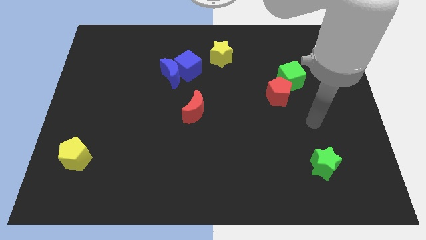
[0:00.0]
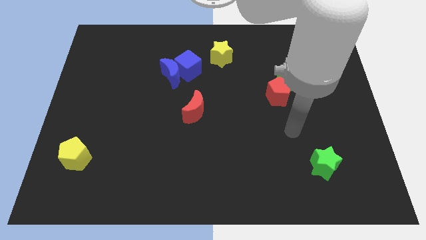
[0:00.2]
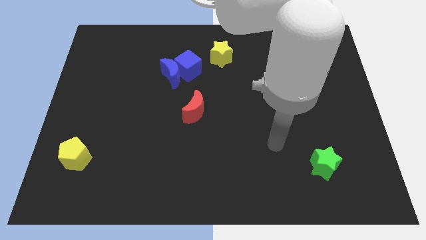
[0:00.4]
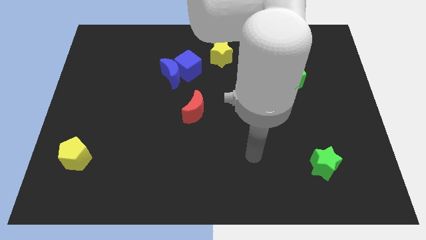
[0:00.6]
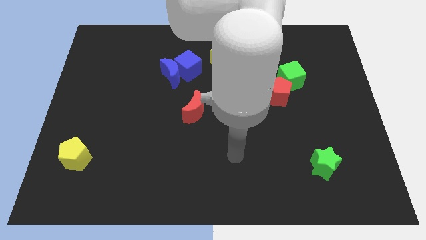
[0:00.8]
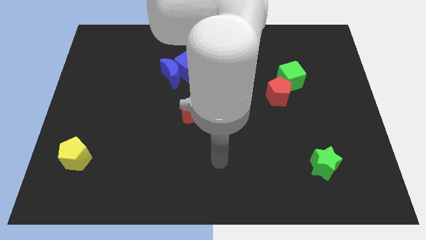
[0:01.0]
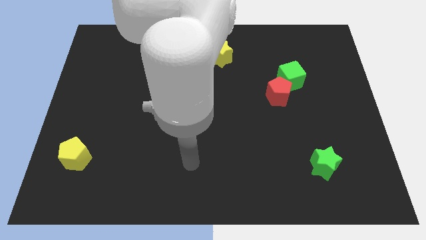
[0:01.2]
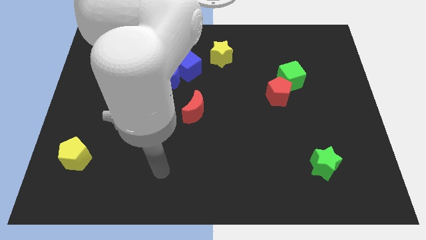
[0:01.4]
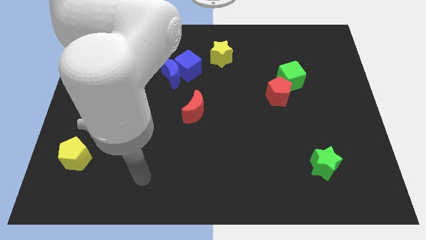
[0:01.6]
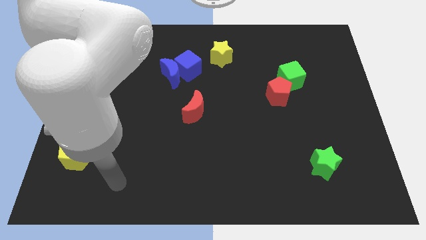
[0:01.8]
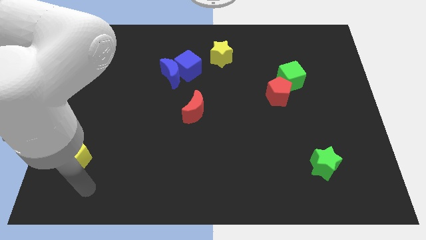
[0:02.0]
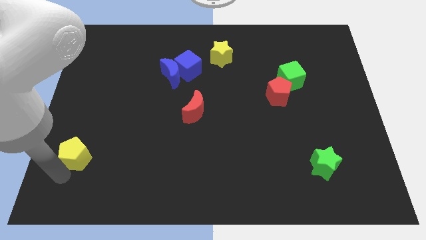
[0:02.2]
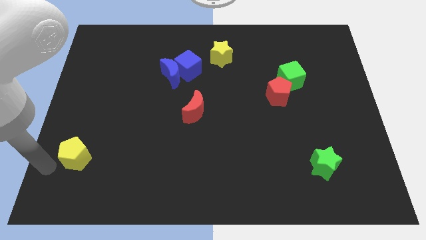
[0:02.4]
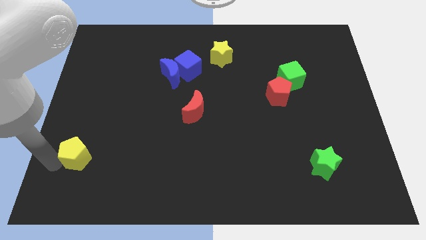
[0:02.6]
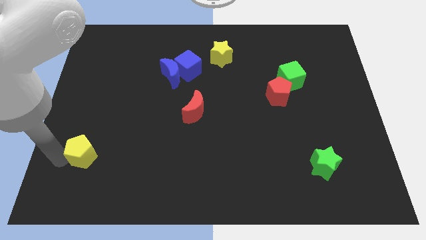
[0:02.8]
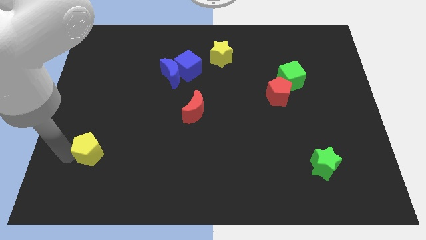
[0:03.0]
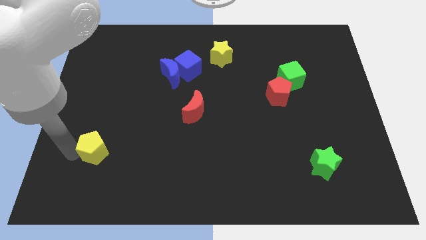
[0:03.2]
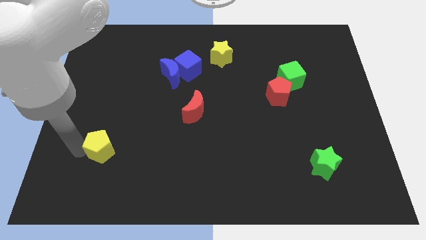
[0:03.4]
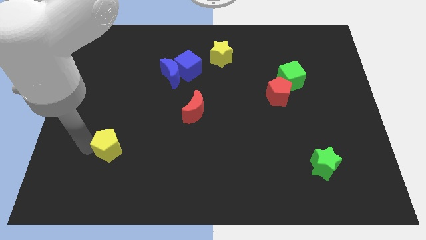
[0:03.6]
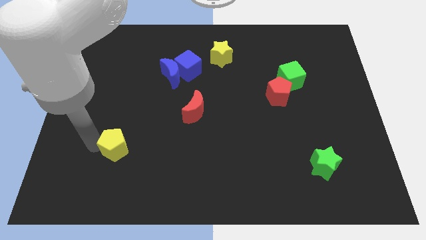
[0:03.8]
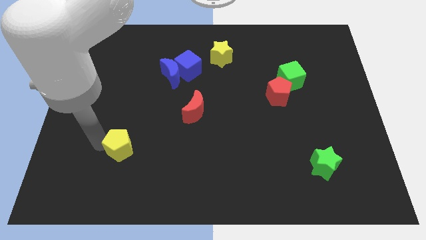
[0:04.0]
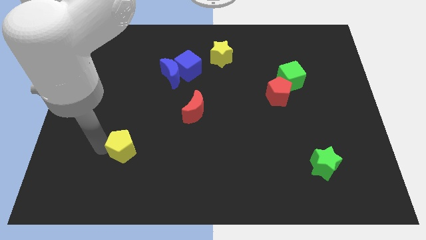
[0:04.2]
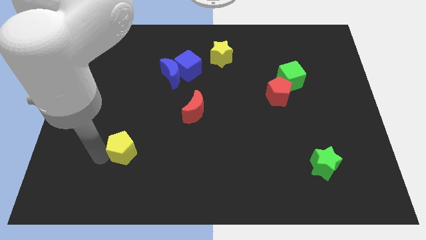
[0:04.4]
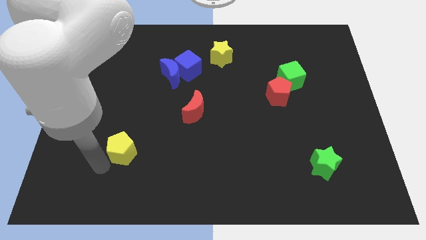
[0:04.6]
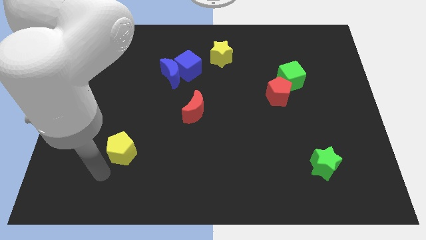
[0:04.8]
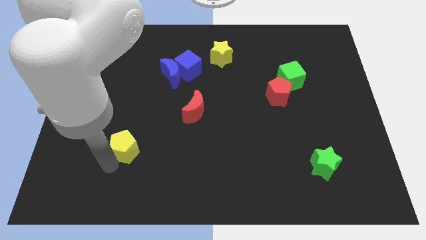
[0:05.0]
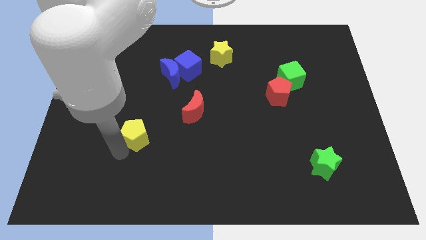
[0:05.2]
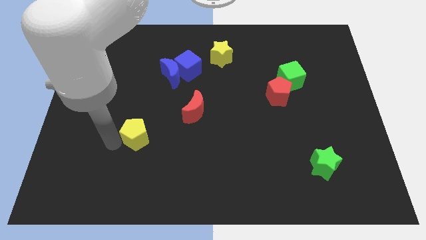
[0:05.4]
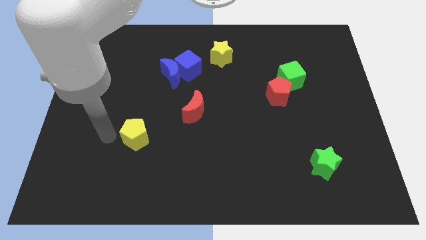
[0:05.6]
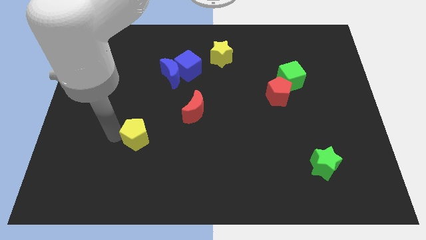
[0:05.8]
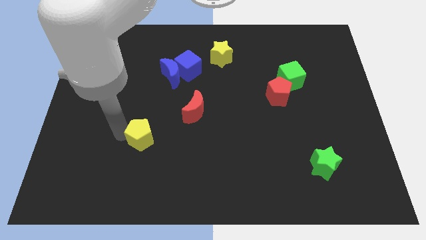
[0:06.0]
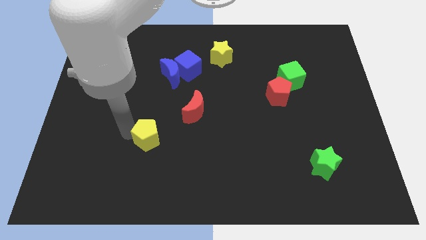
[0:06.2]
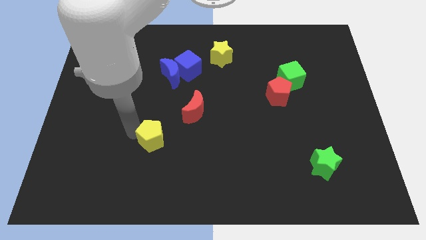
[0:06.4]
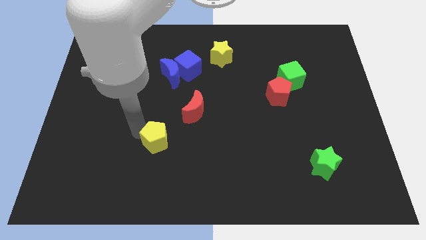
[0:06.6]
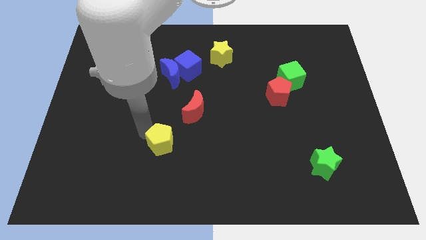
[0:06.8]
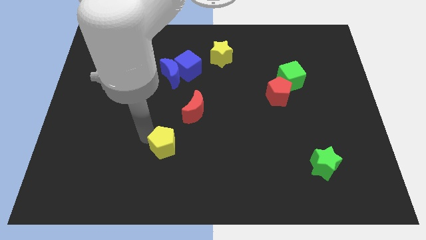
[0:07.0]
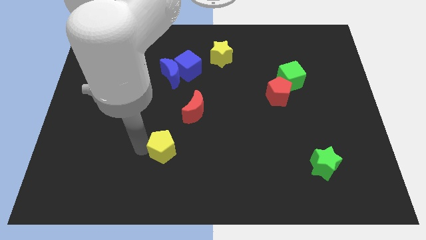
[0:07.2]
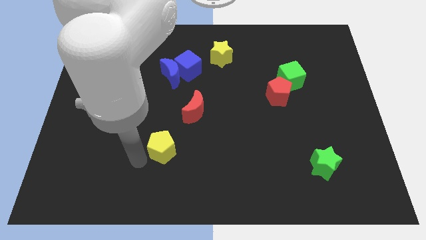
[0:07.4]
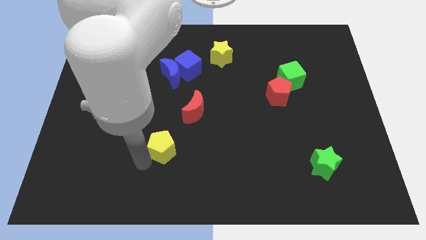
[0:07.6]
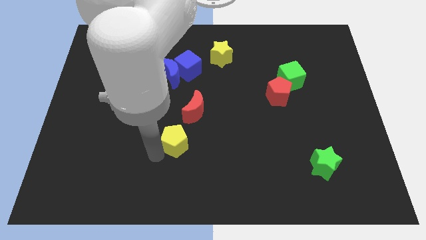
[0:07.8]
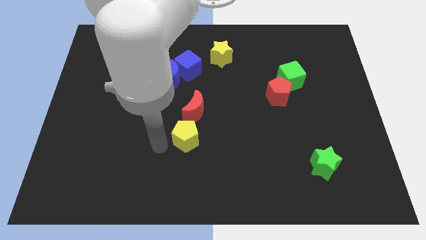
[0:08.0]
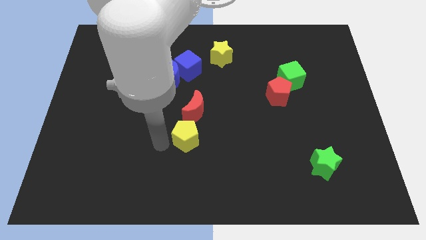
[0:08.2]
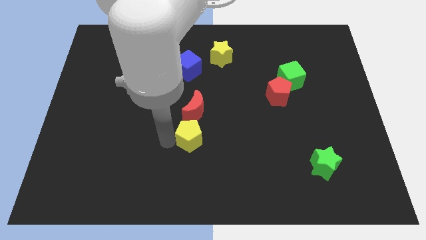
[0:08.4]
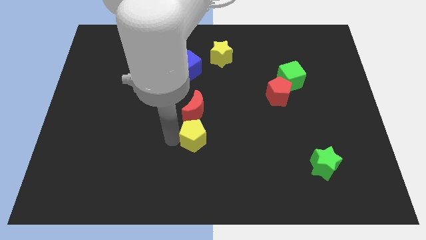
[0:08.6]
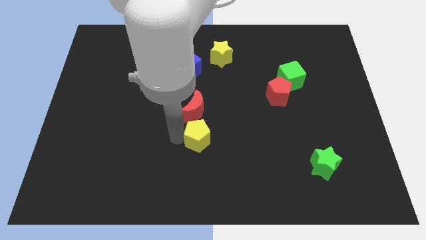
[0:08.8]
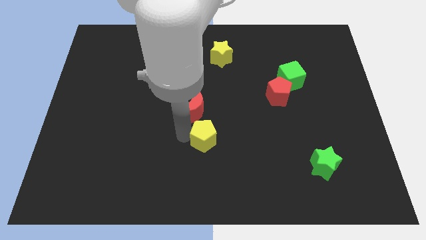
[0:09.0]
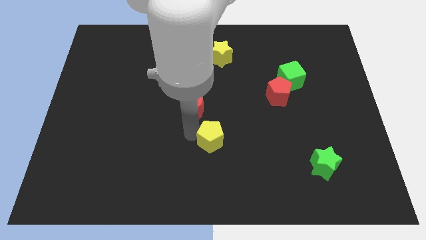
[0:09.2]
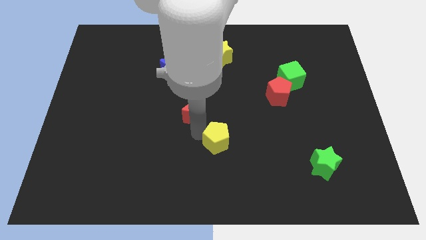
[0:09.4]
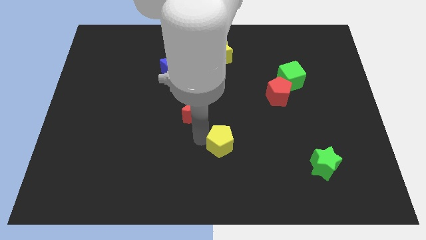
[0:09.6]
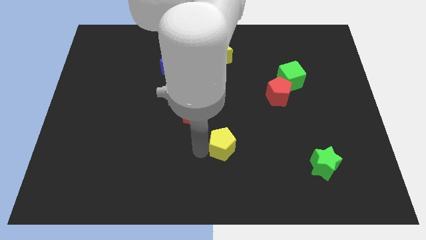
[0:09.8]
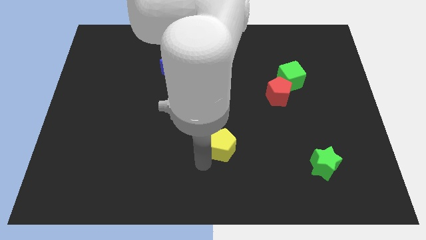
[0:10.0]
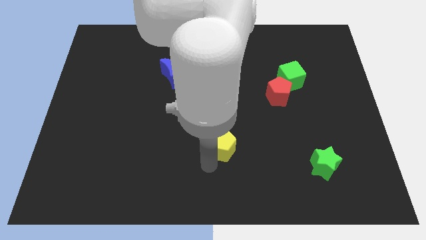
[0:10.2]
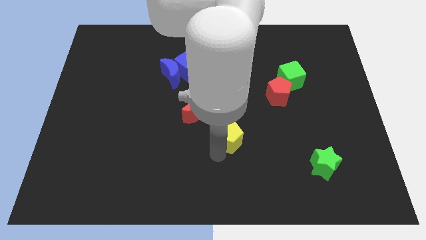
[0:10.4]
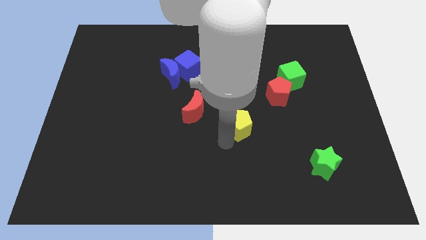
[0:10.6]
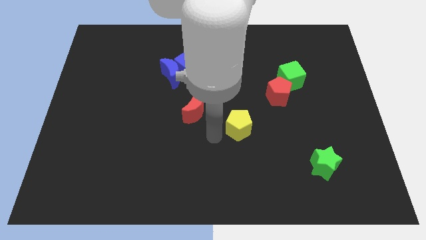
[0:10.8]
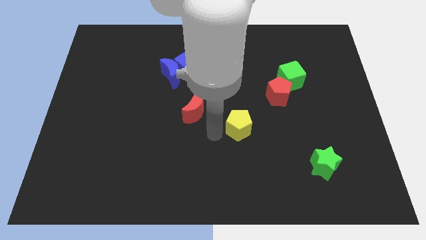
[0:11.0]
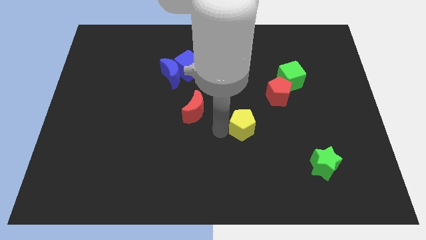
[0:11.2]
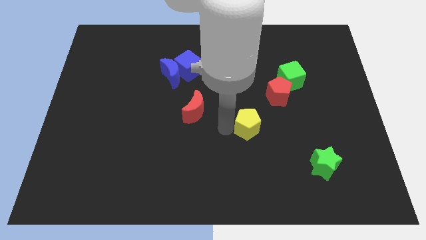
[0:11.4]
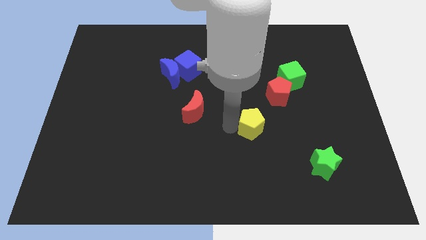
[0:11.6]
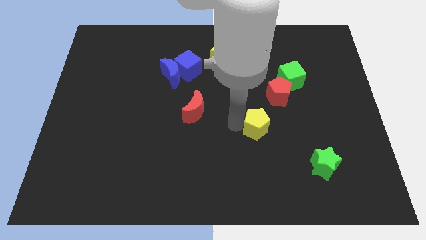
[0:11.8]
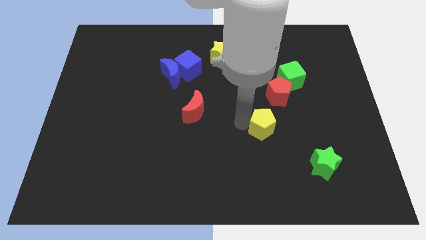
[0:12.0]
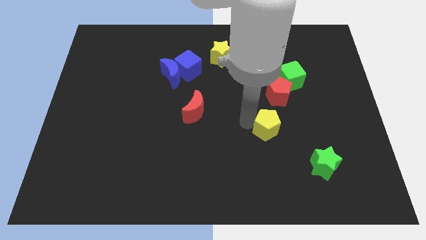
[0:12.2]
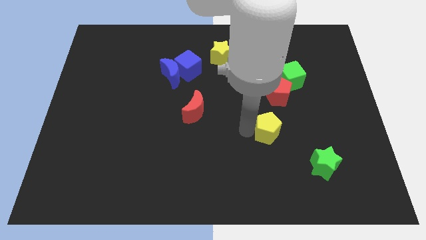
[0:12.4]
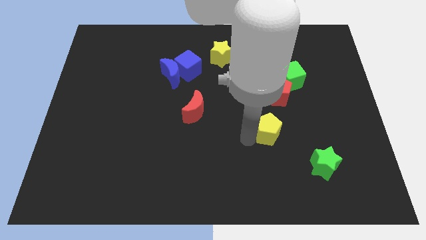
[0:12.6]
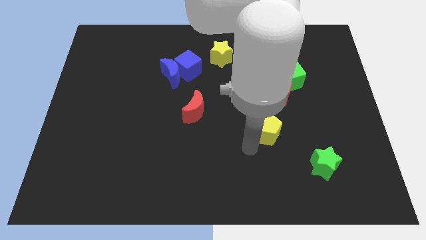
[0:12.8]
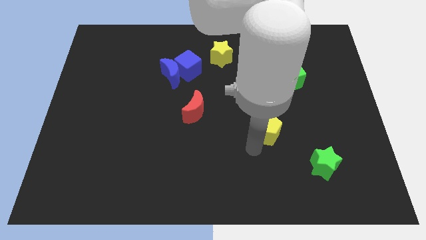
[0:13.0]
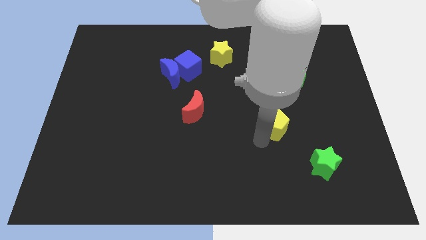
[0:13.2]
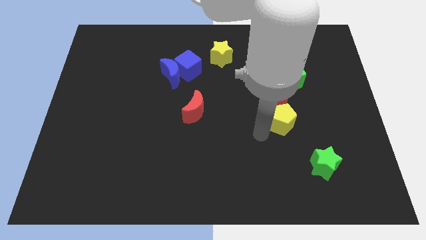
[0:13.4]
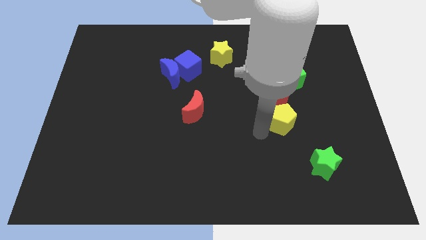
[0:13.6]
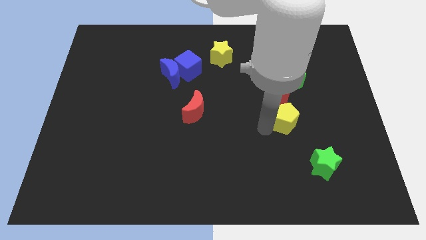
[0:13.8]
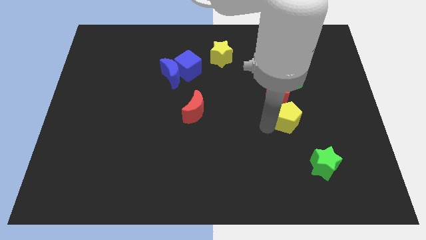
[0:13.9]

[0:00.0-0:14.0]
push the yellow pentagon to the bottom right side of the red pentagon
